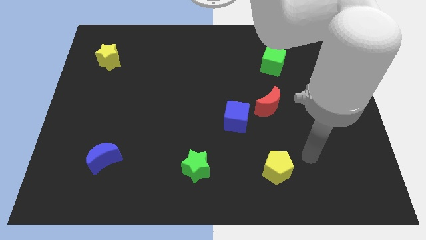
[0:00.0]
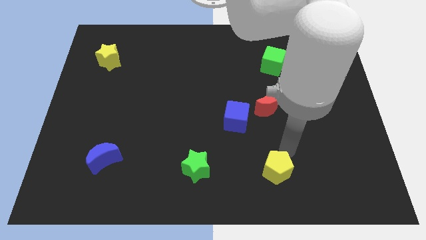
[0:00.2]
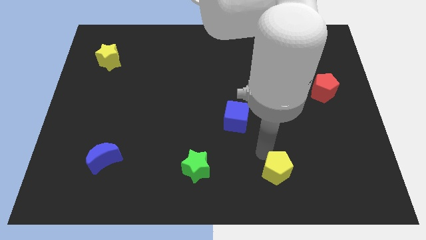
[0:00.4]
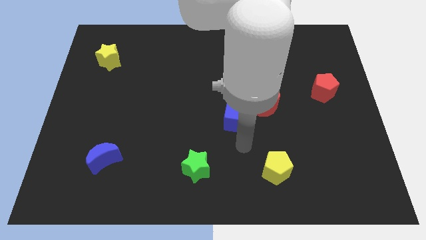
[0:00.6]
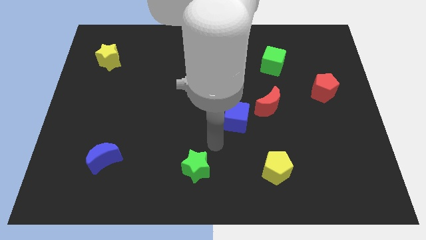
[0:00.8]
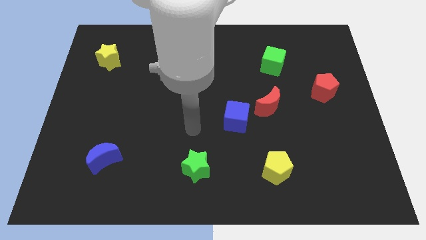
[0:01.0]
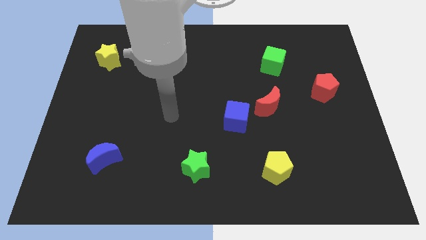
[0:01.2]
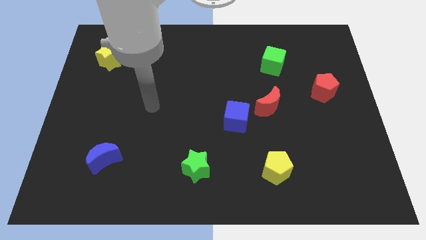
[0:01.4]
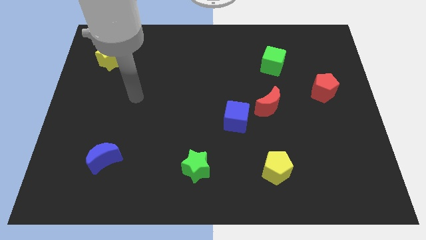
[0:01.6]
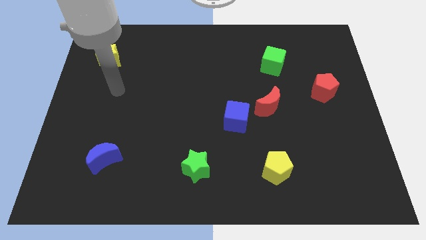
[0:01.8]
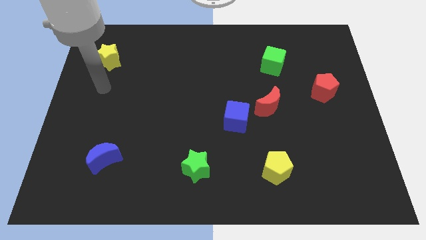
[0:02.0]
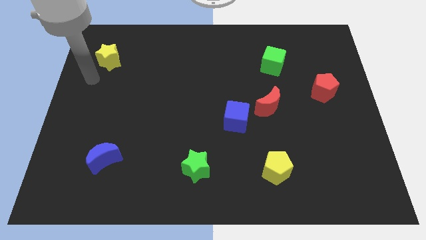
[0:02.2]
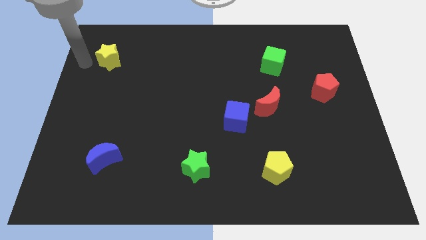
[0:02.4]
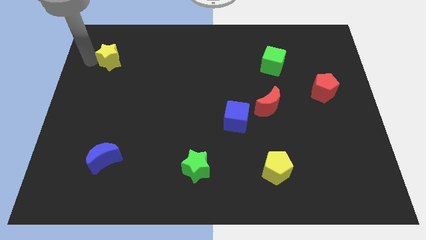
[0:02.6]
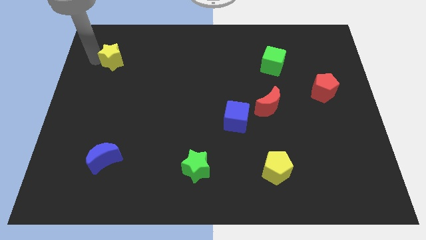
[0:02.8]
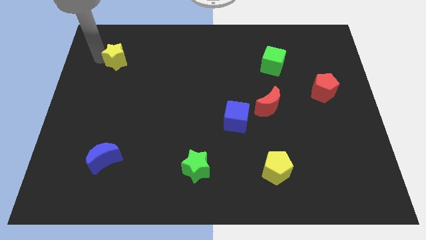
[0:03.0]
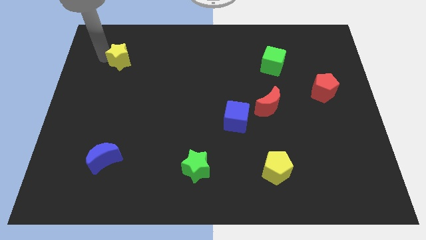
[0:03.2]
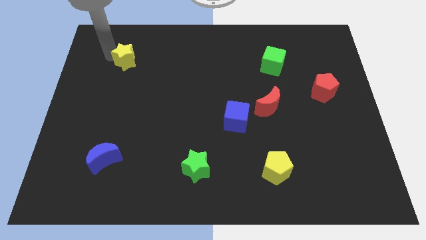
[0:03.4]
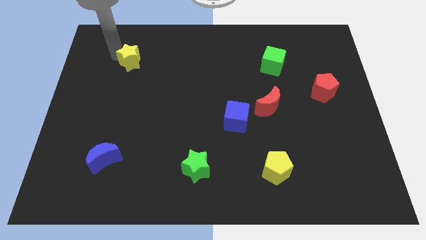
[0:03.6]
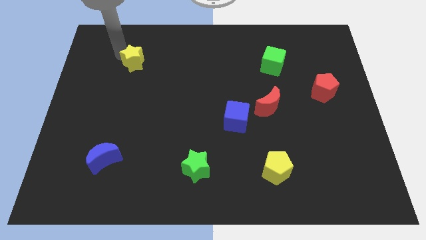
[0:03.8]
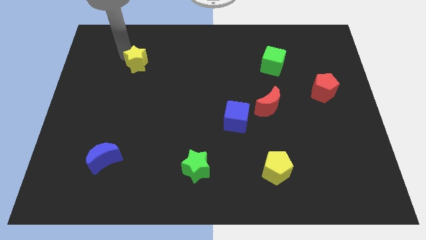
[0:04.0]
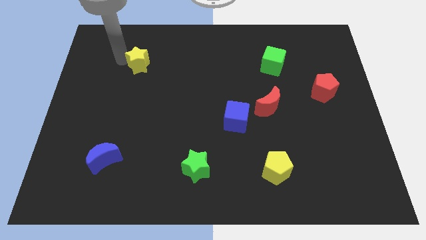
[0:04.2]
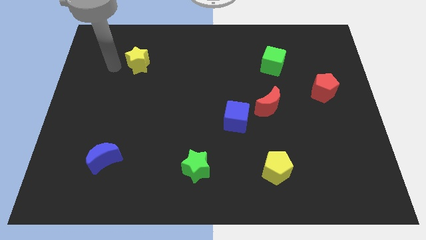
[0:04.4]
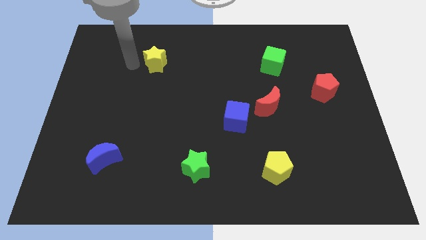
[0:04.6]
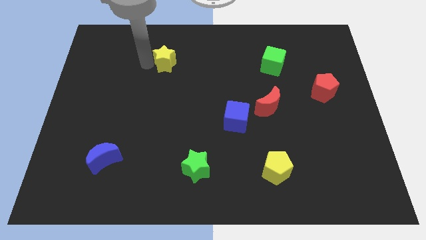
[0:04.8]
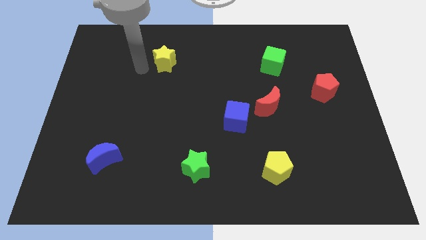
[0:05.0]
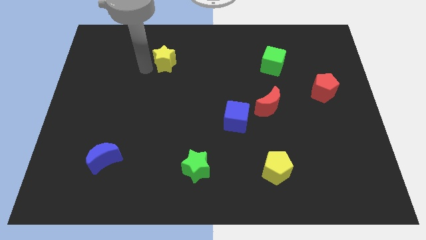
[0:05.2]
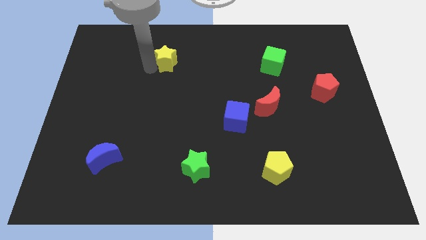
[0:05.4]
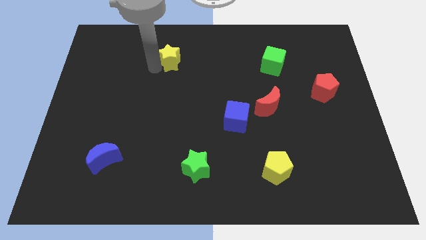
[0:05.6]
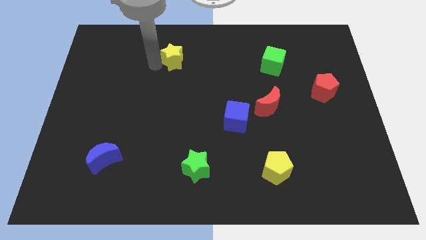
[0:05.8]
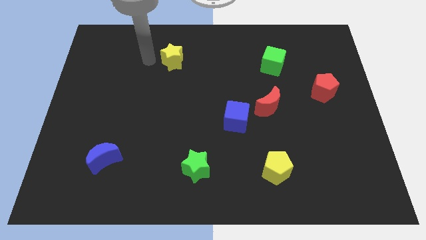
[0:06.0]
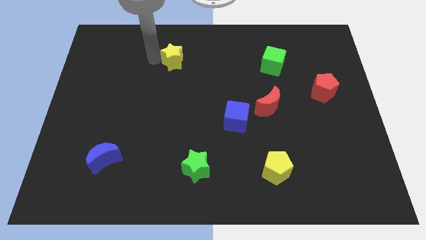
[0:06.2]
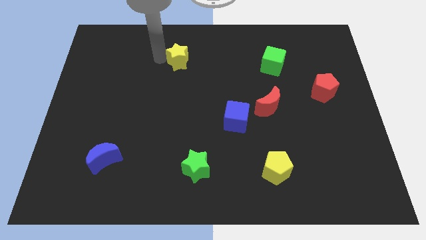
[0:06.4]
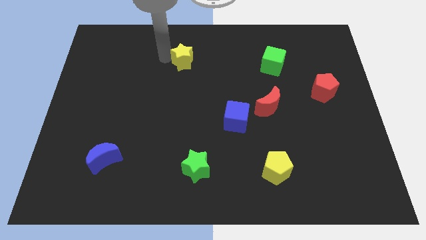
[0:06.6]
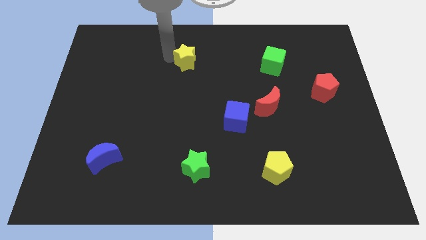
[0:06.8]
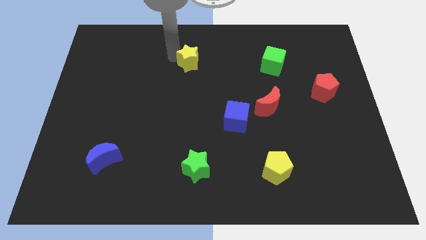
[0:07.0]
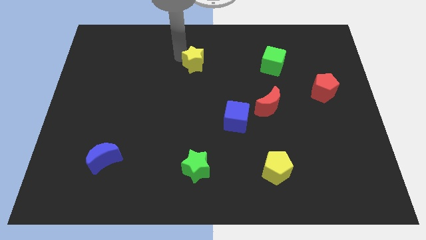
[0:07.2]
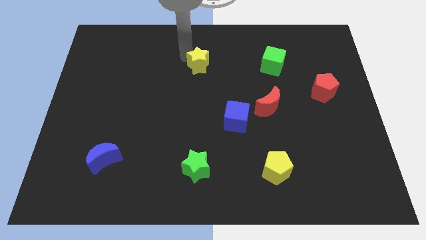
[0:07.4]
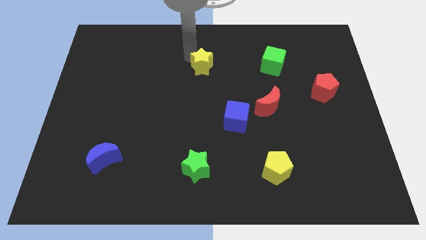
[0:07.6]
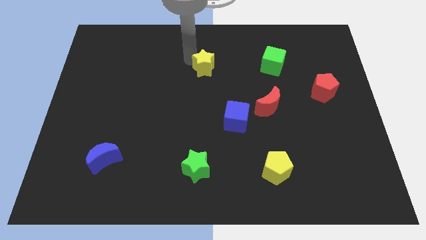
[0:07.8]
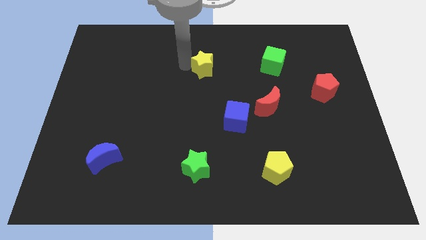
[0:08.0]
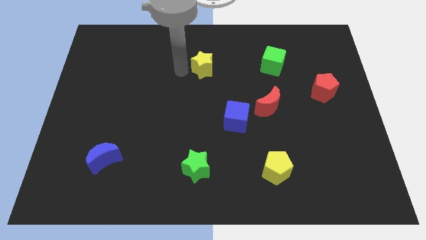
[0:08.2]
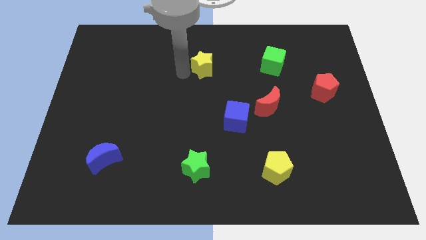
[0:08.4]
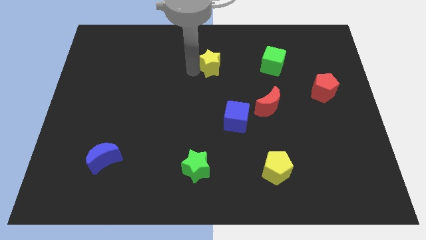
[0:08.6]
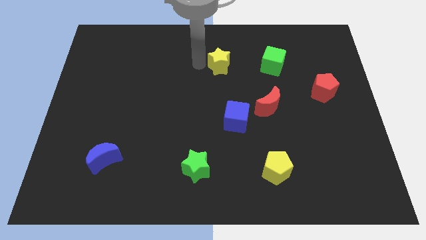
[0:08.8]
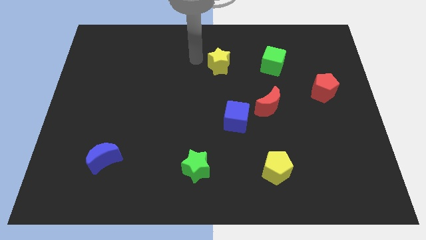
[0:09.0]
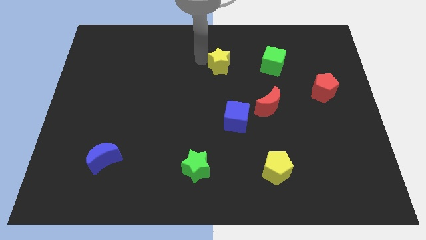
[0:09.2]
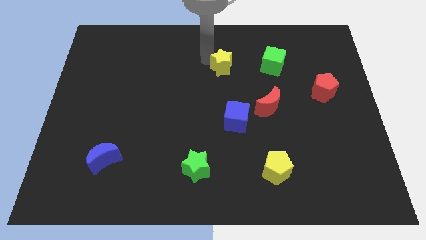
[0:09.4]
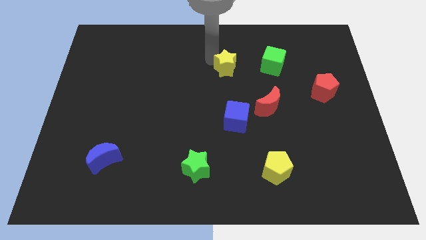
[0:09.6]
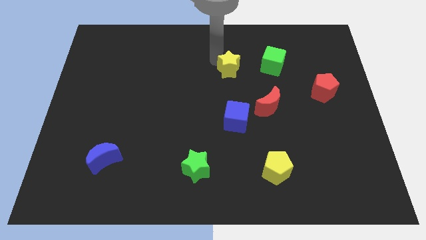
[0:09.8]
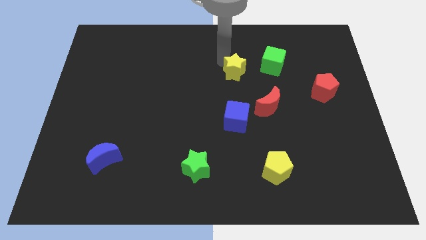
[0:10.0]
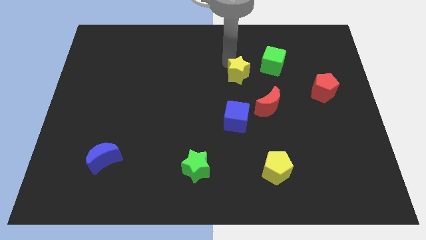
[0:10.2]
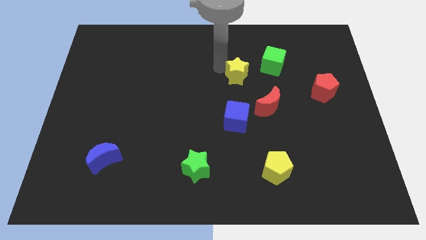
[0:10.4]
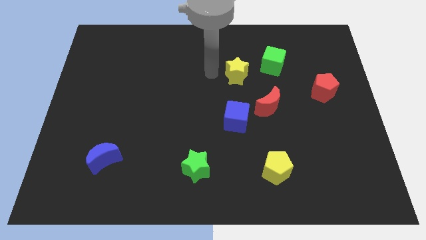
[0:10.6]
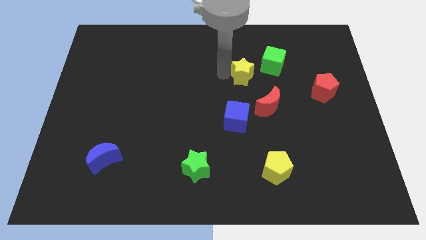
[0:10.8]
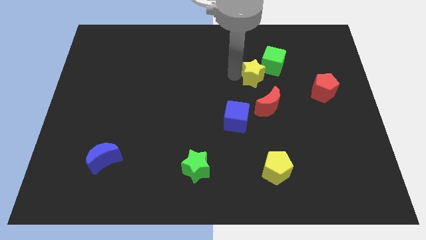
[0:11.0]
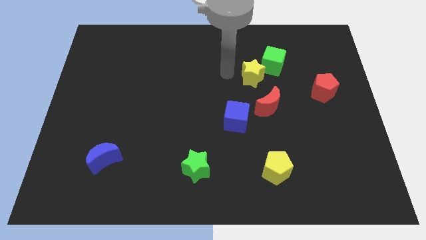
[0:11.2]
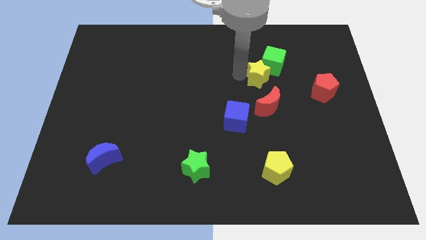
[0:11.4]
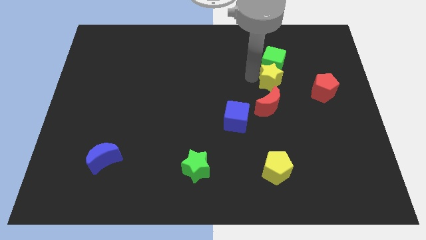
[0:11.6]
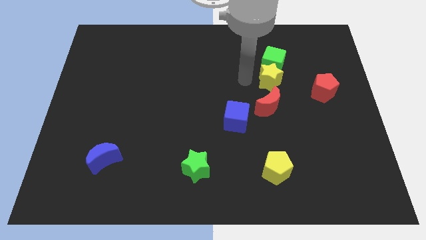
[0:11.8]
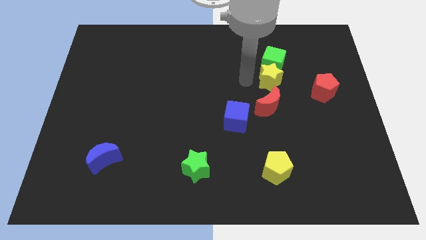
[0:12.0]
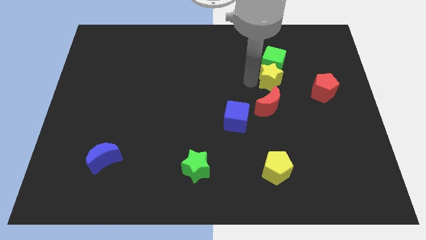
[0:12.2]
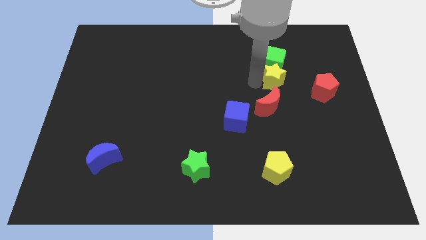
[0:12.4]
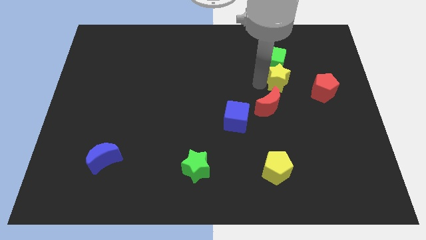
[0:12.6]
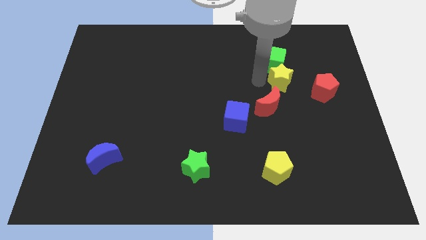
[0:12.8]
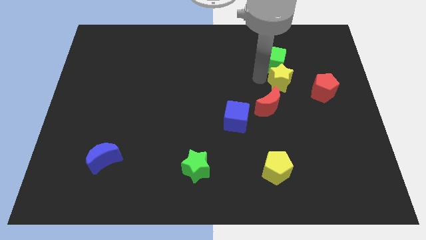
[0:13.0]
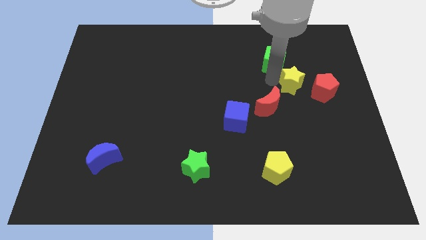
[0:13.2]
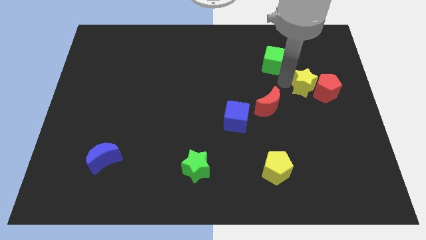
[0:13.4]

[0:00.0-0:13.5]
push the yellow star next to the red pentagon
